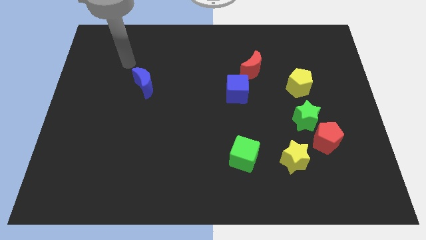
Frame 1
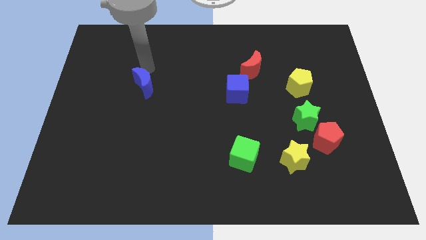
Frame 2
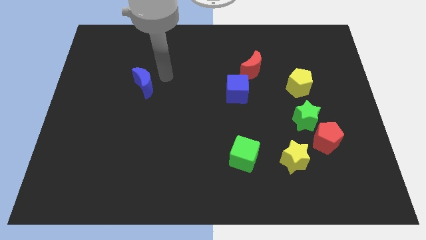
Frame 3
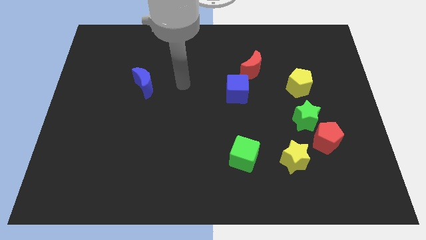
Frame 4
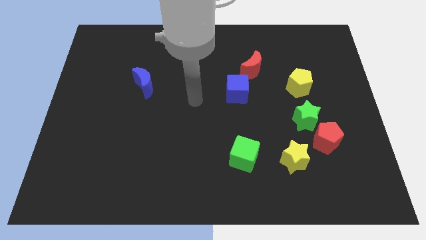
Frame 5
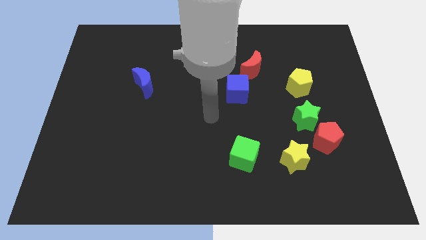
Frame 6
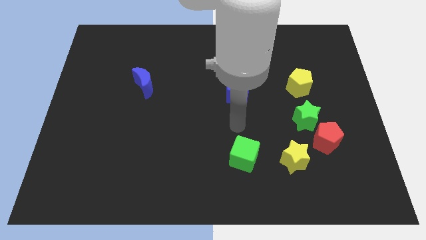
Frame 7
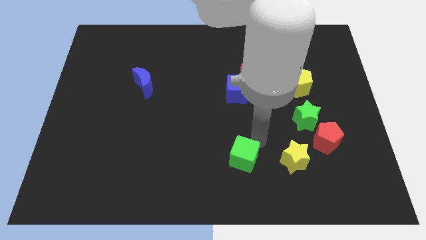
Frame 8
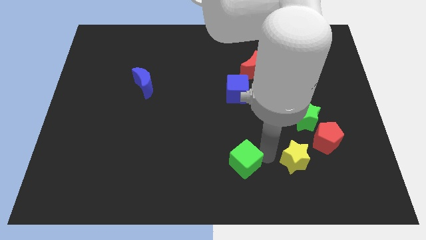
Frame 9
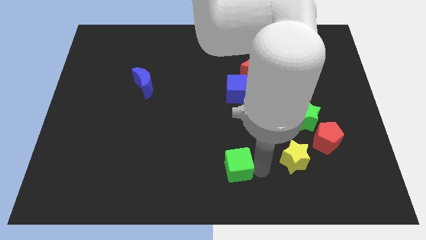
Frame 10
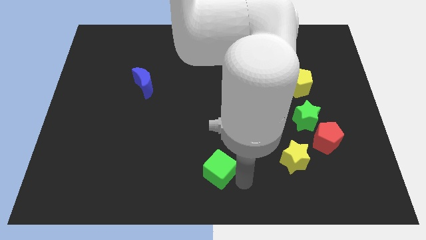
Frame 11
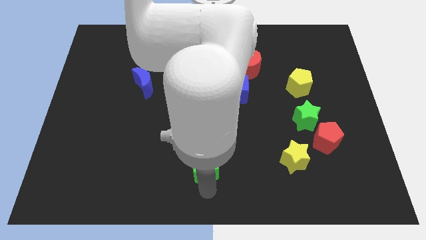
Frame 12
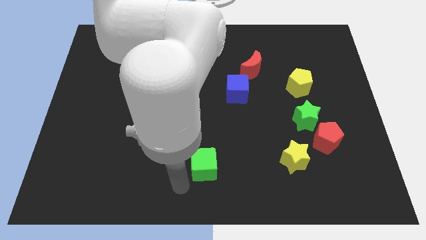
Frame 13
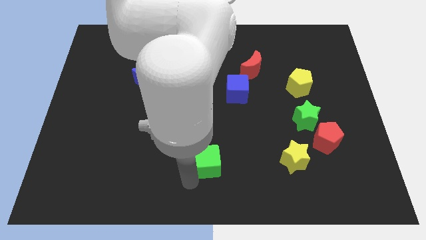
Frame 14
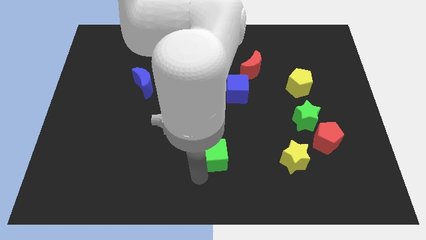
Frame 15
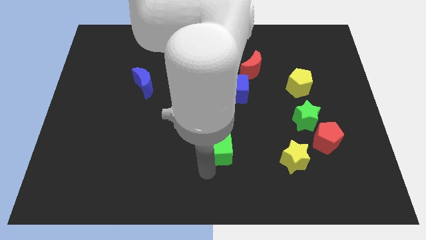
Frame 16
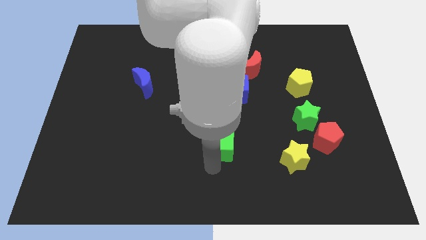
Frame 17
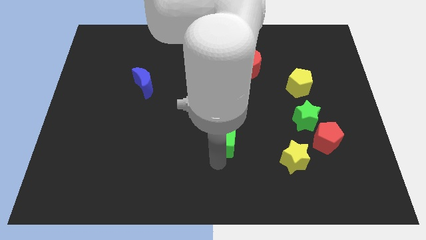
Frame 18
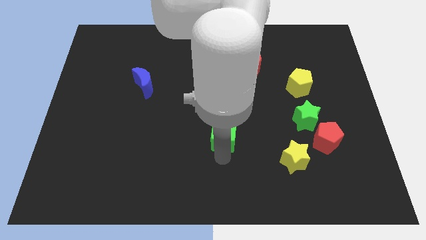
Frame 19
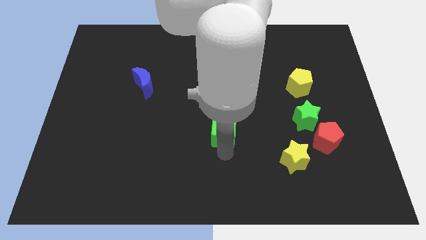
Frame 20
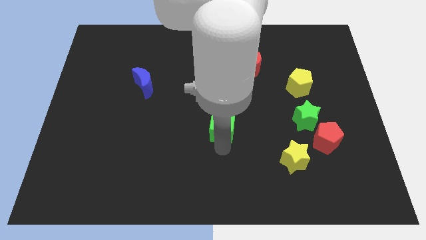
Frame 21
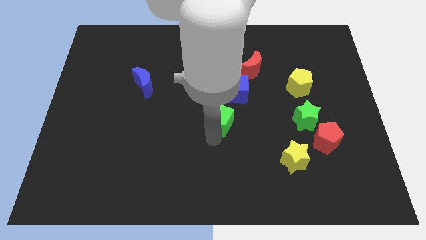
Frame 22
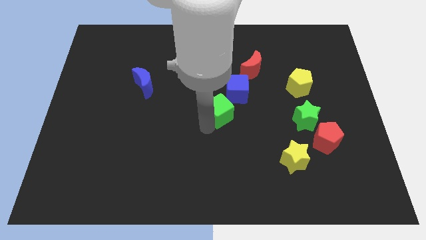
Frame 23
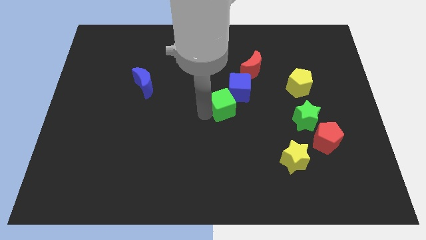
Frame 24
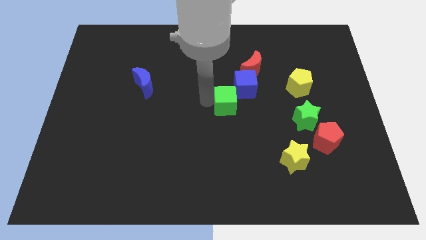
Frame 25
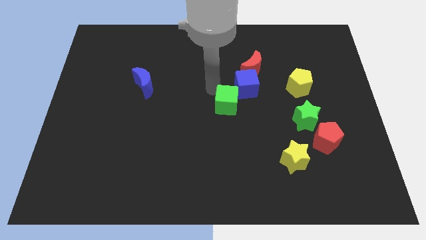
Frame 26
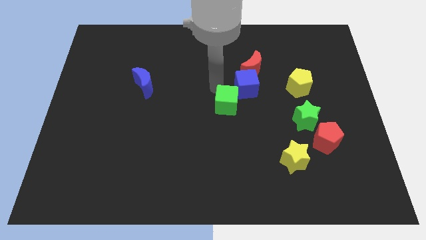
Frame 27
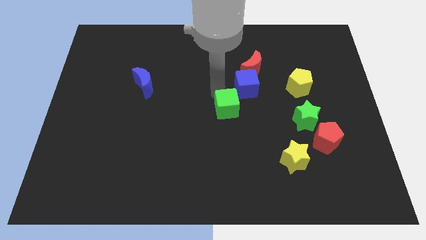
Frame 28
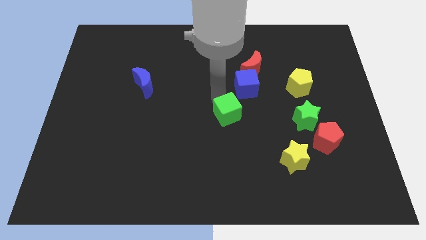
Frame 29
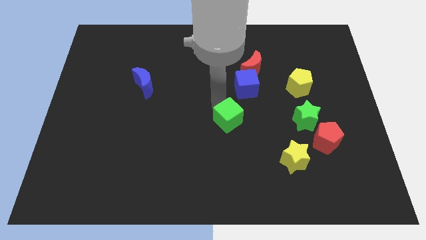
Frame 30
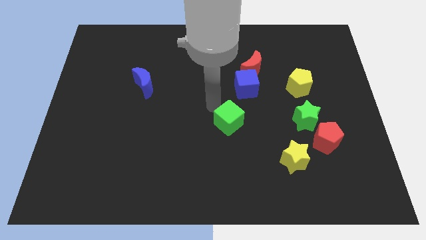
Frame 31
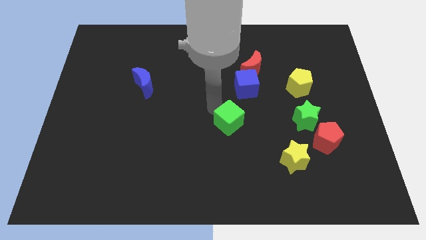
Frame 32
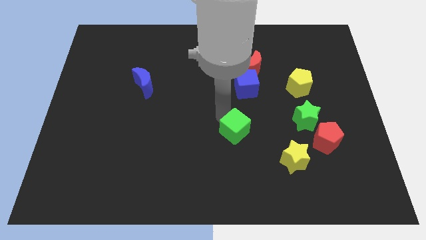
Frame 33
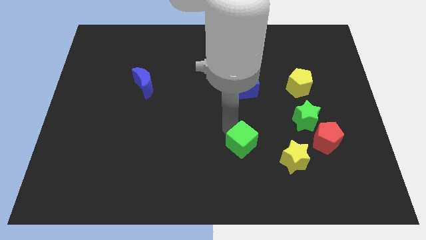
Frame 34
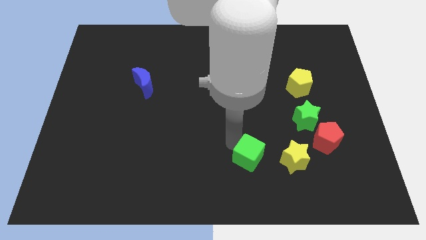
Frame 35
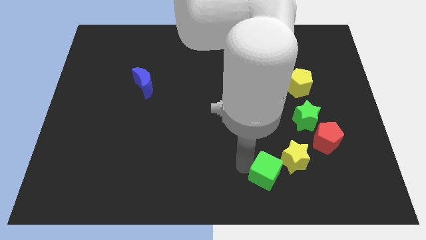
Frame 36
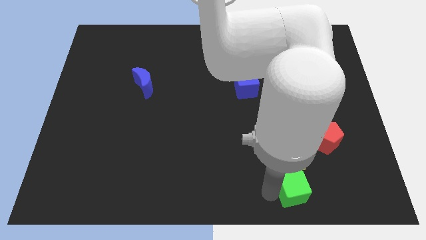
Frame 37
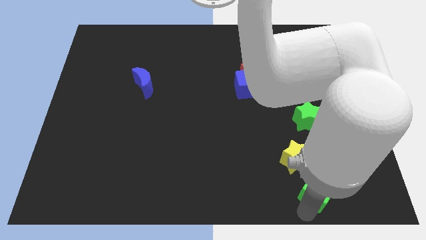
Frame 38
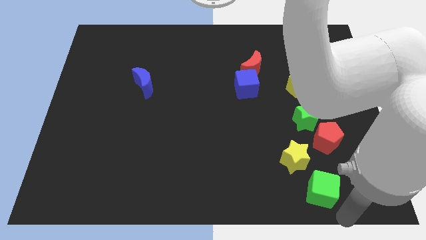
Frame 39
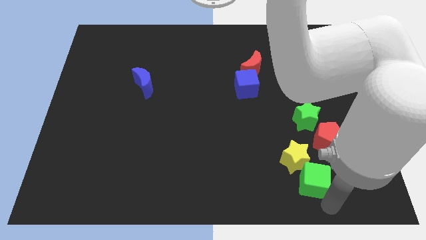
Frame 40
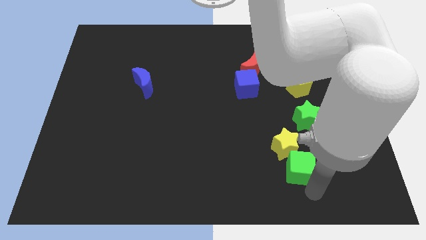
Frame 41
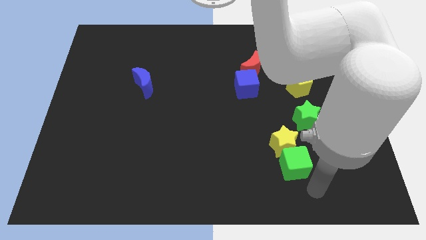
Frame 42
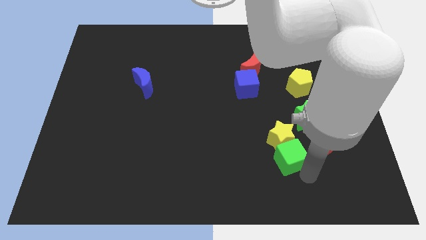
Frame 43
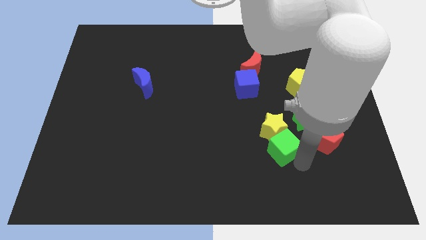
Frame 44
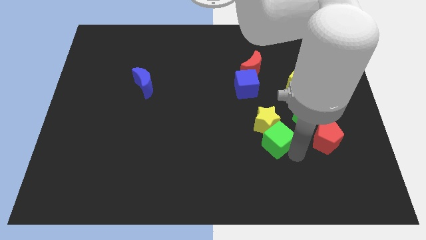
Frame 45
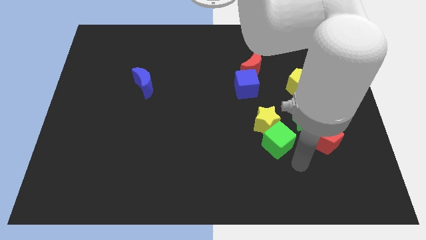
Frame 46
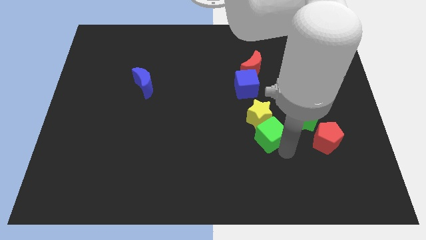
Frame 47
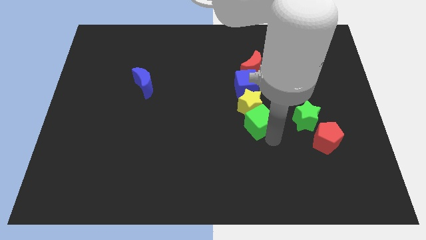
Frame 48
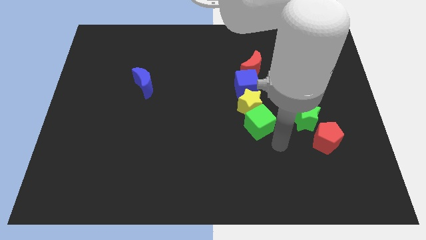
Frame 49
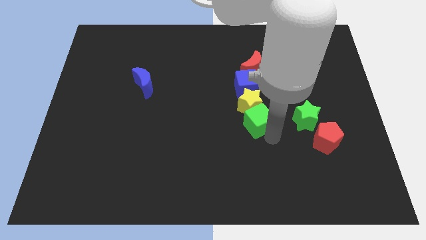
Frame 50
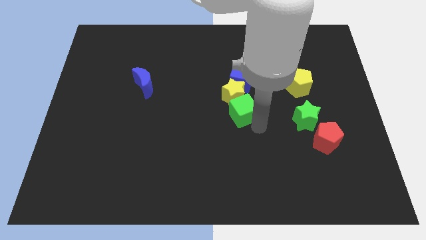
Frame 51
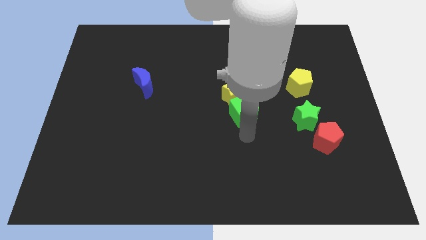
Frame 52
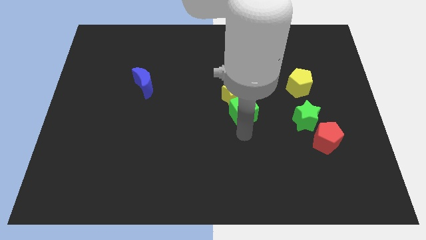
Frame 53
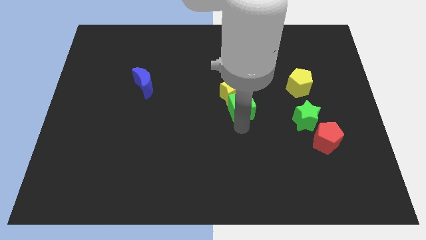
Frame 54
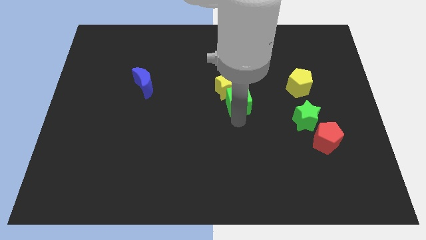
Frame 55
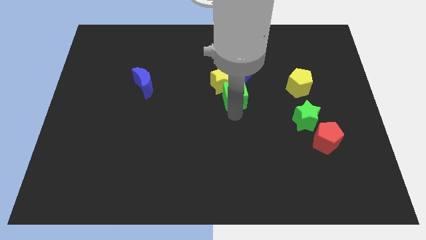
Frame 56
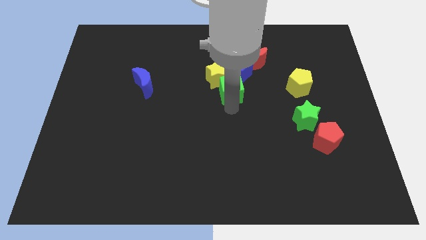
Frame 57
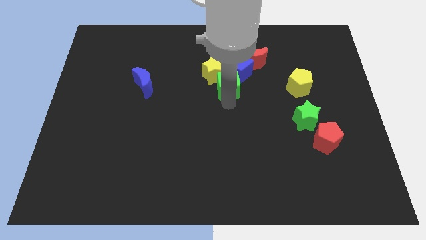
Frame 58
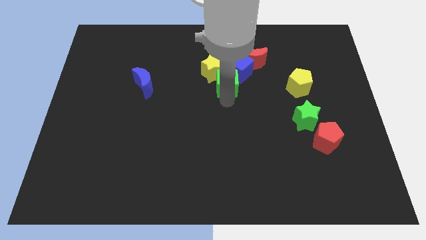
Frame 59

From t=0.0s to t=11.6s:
move the green cube towards the blue cube

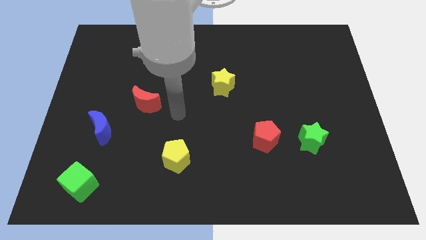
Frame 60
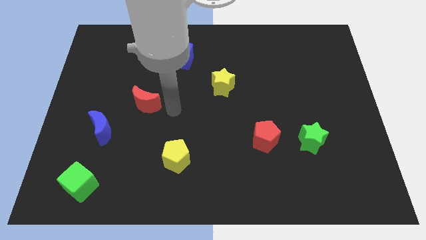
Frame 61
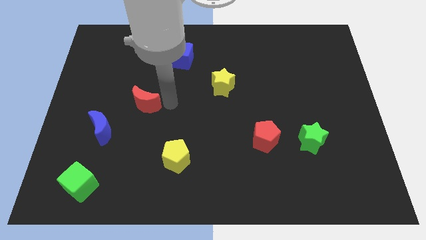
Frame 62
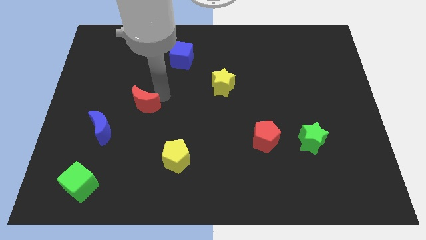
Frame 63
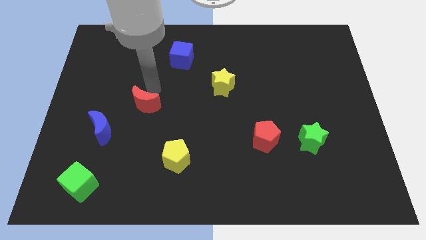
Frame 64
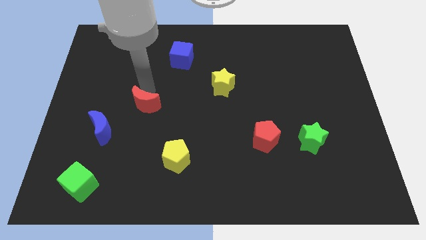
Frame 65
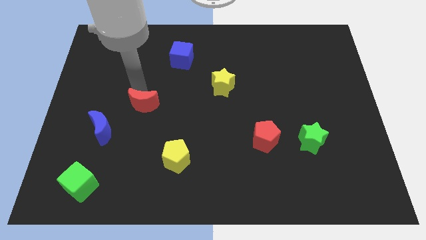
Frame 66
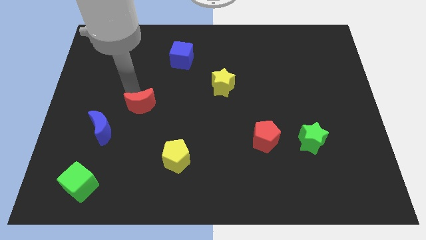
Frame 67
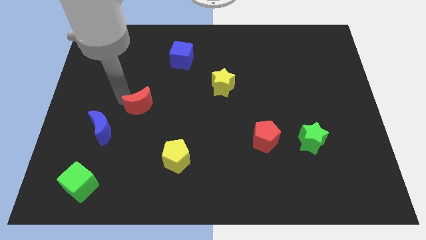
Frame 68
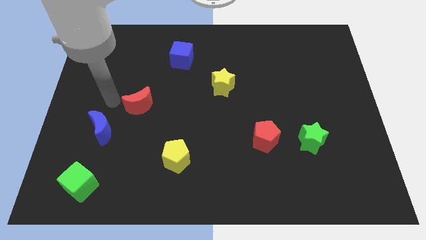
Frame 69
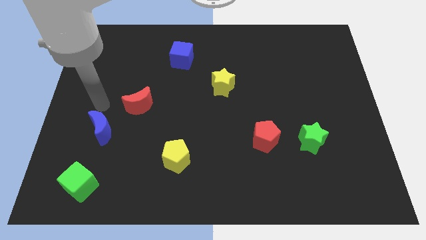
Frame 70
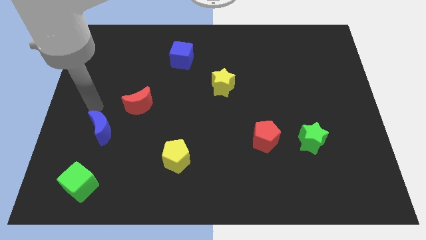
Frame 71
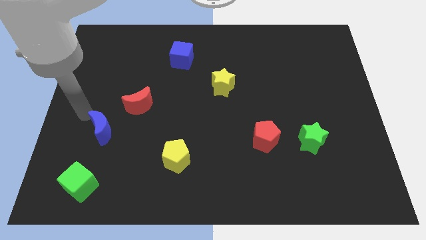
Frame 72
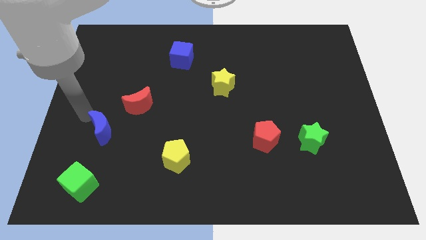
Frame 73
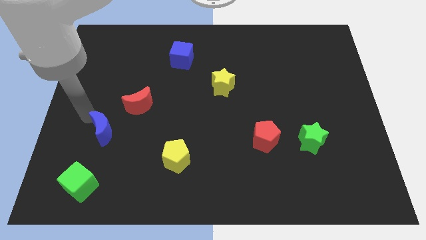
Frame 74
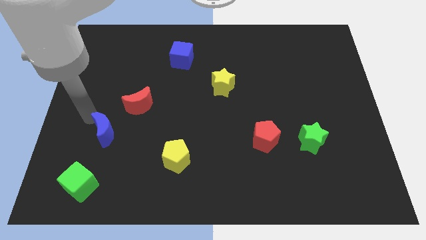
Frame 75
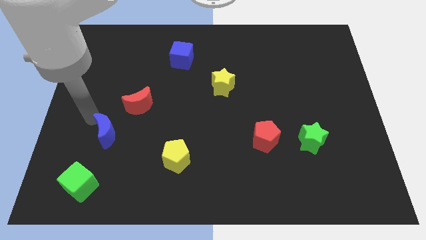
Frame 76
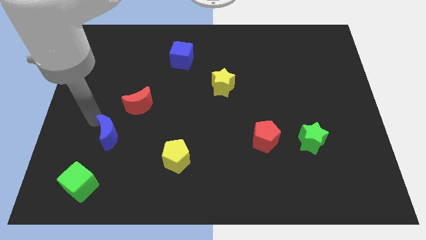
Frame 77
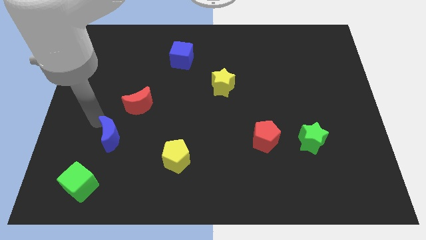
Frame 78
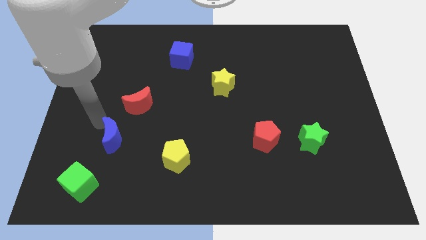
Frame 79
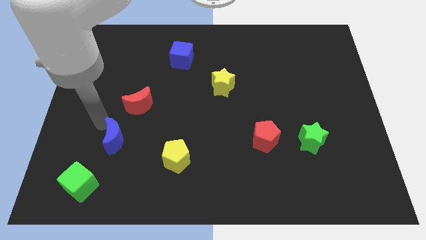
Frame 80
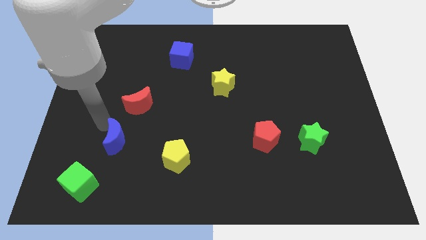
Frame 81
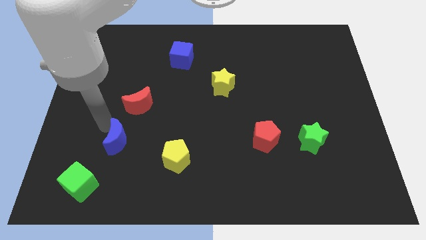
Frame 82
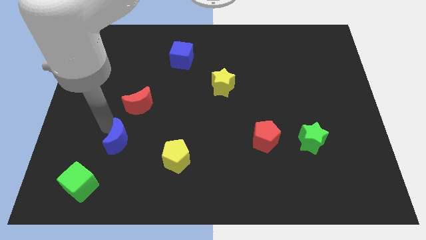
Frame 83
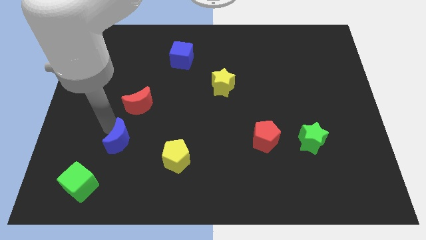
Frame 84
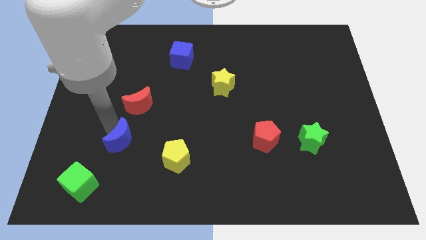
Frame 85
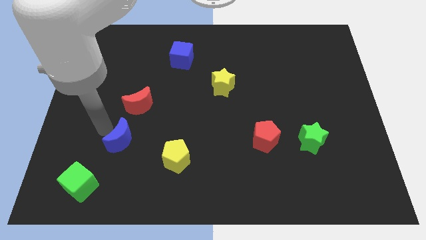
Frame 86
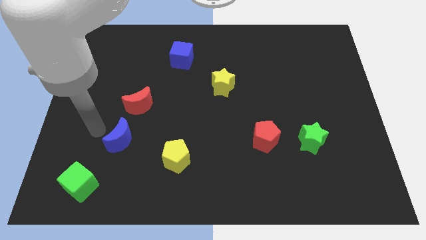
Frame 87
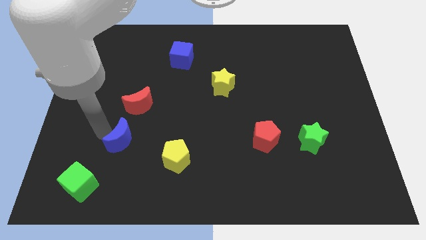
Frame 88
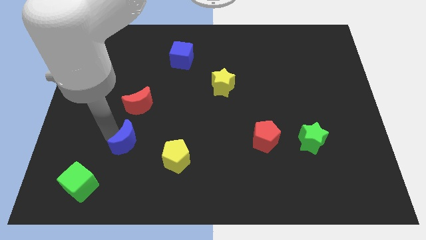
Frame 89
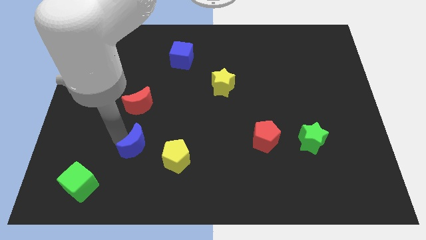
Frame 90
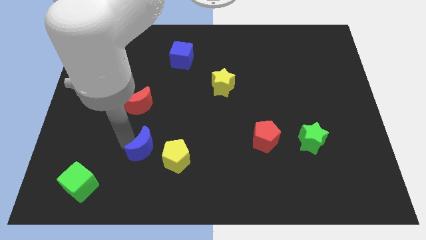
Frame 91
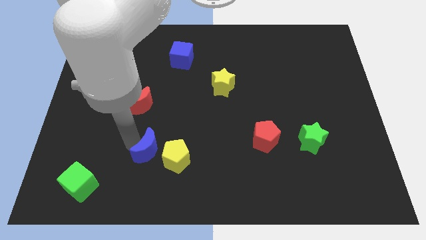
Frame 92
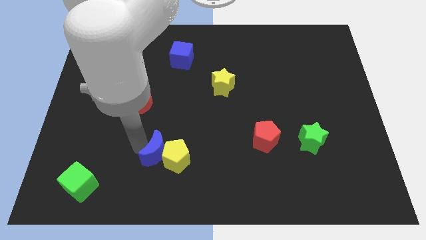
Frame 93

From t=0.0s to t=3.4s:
slide the blue moon towards the yellow pentagon
